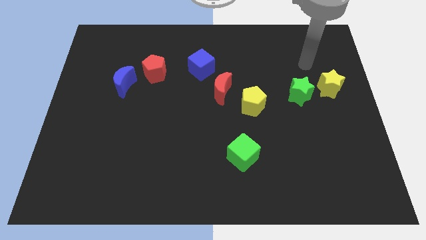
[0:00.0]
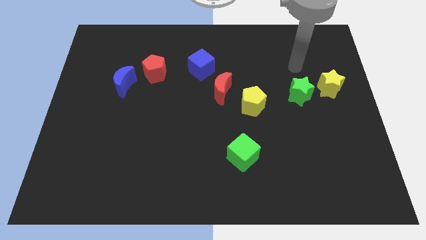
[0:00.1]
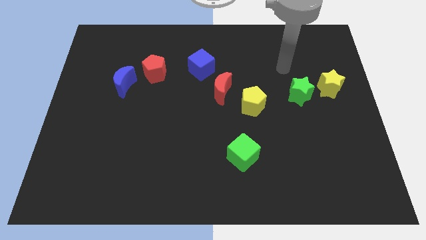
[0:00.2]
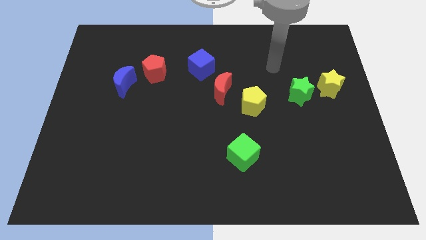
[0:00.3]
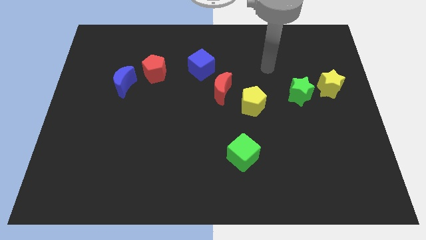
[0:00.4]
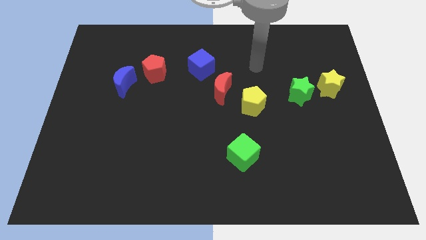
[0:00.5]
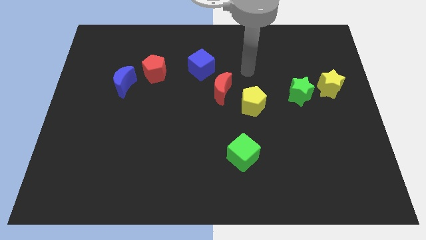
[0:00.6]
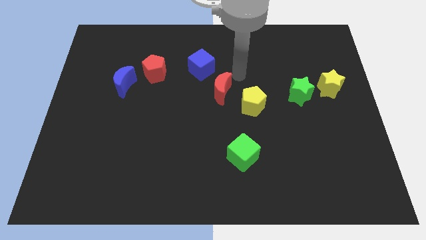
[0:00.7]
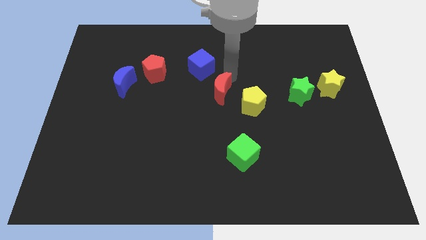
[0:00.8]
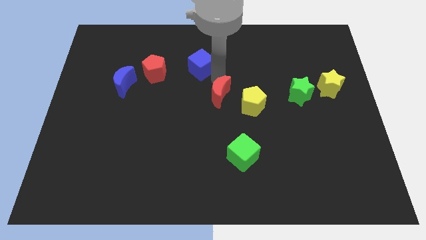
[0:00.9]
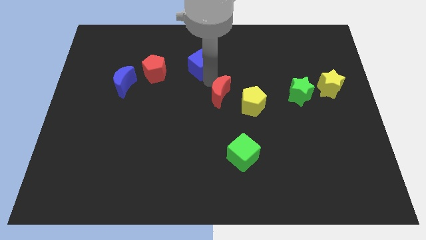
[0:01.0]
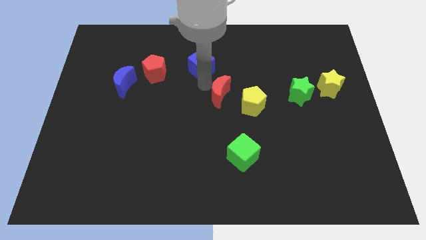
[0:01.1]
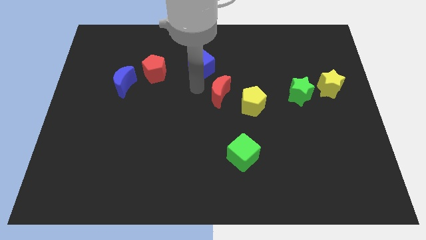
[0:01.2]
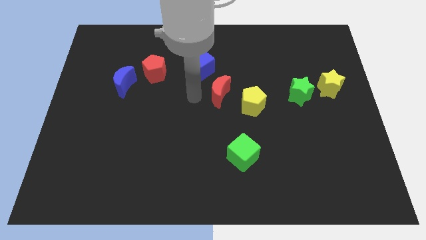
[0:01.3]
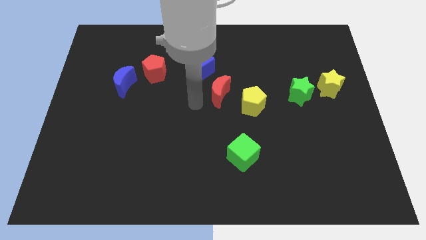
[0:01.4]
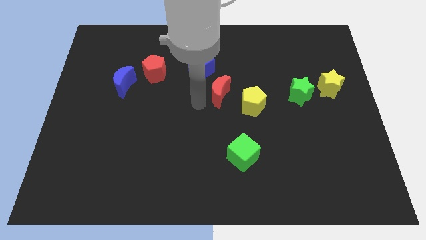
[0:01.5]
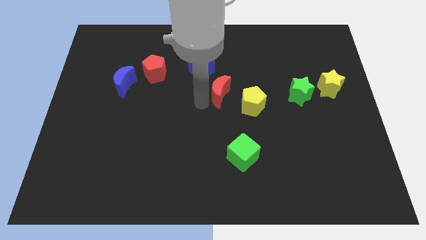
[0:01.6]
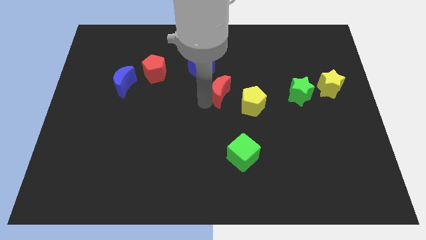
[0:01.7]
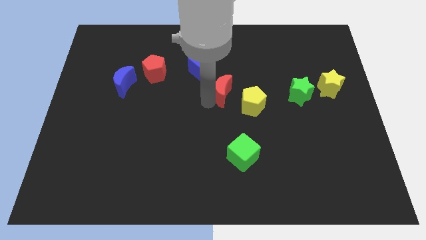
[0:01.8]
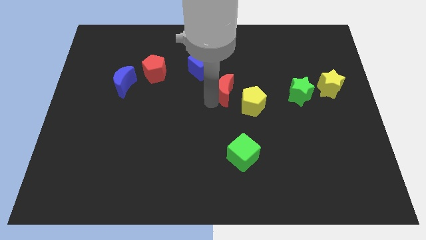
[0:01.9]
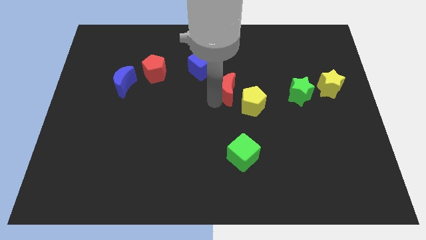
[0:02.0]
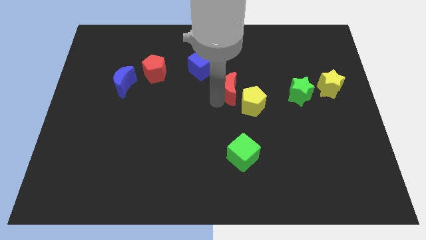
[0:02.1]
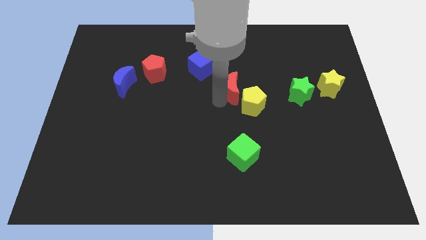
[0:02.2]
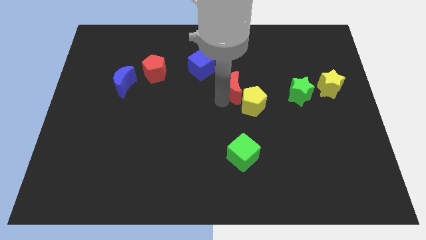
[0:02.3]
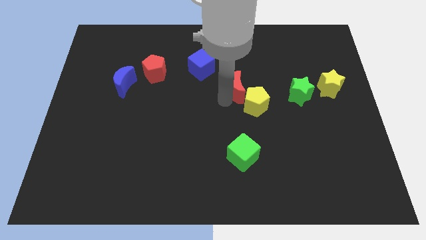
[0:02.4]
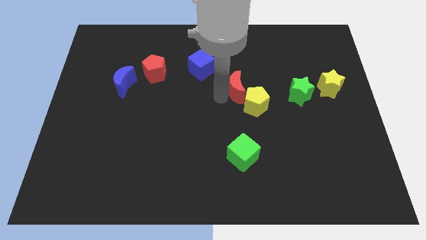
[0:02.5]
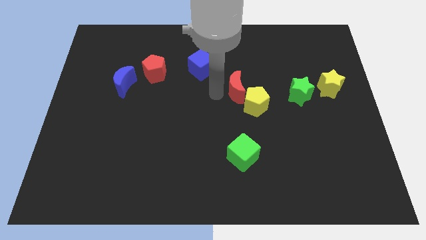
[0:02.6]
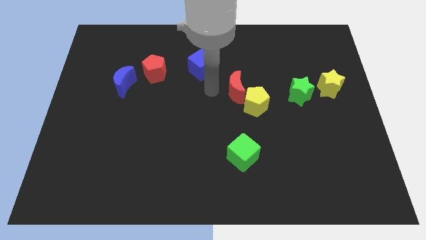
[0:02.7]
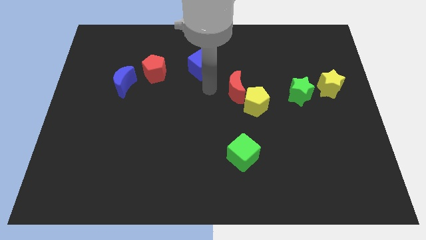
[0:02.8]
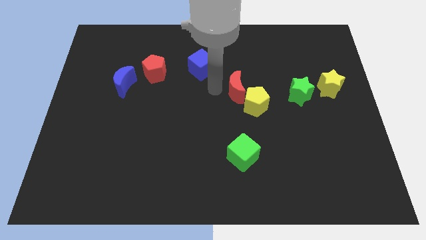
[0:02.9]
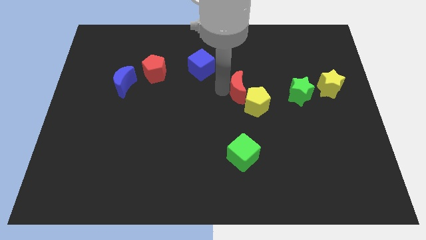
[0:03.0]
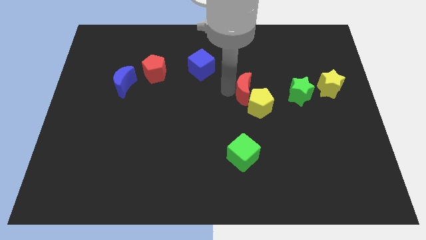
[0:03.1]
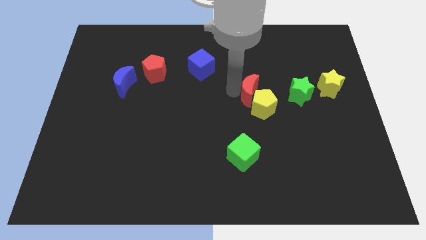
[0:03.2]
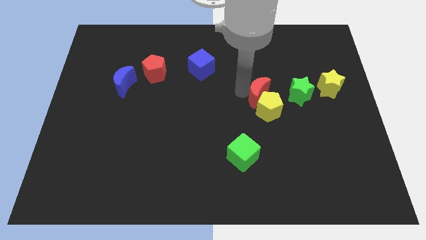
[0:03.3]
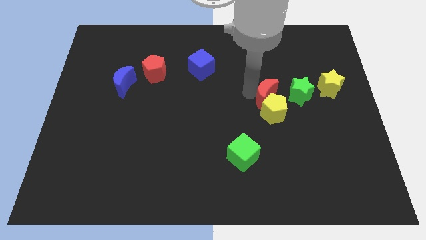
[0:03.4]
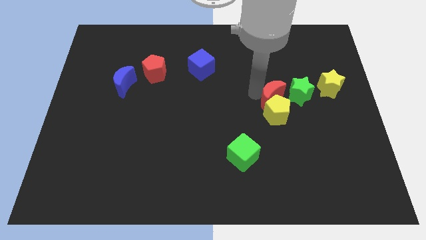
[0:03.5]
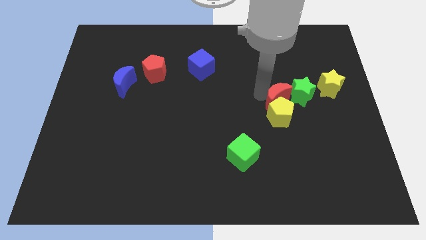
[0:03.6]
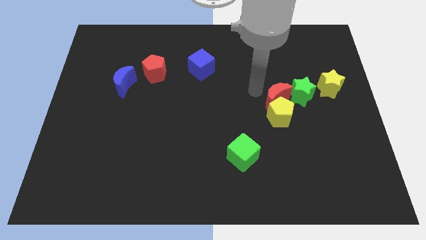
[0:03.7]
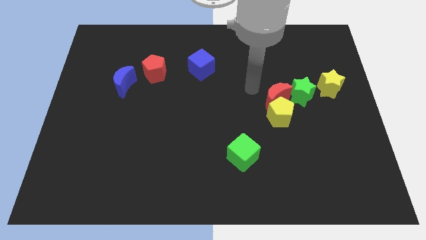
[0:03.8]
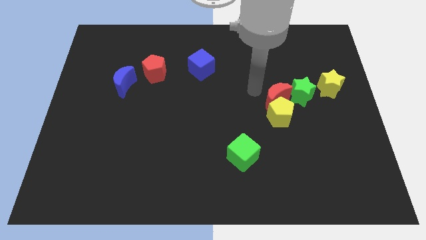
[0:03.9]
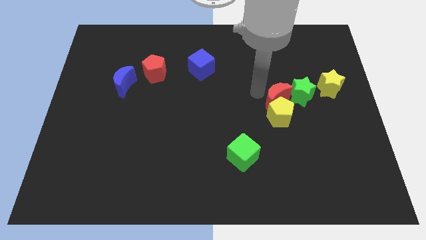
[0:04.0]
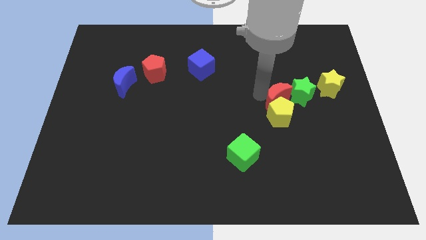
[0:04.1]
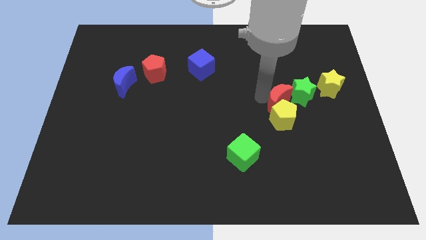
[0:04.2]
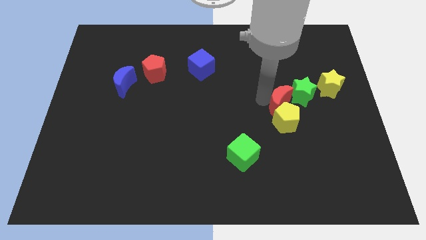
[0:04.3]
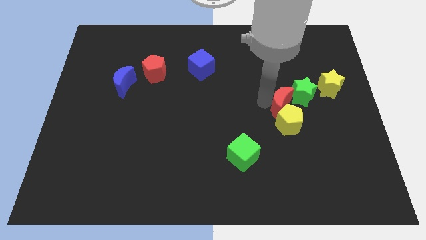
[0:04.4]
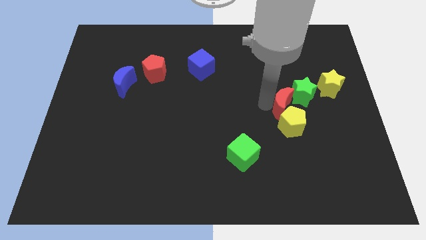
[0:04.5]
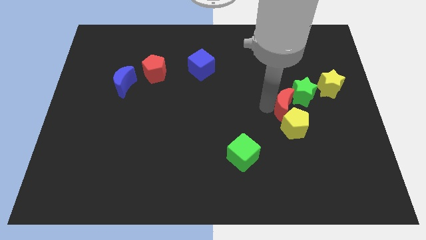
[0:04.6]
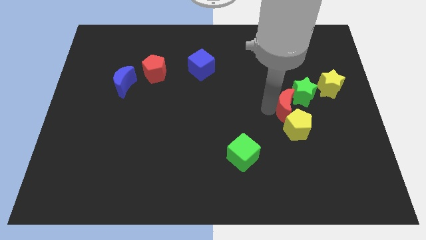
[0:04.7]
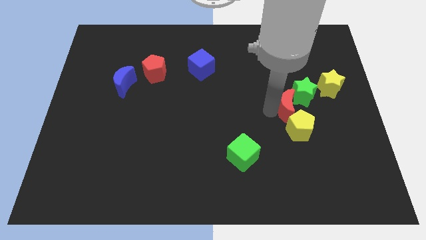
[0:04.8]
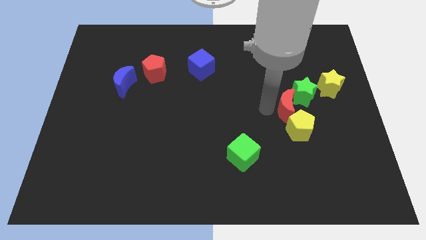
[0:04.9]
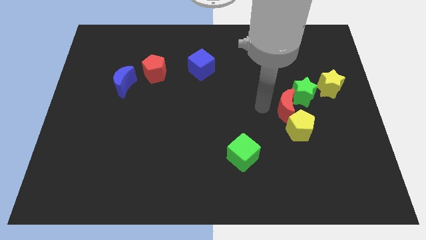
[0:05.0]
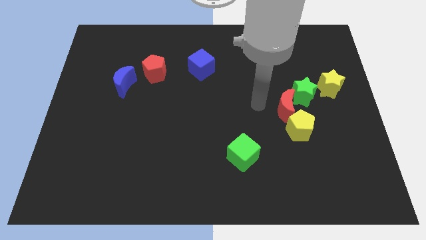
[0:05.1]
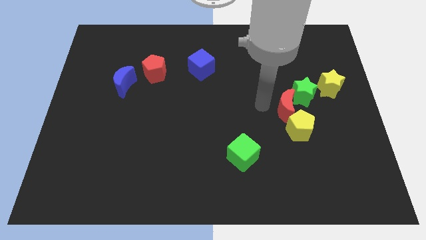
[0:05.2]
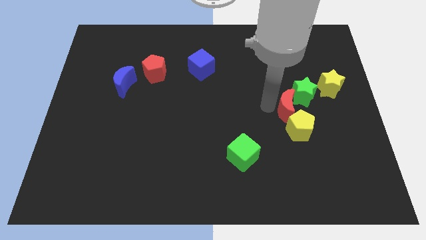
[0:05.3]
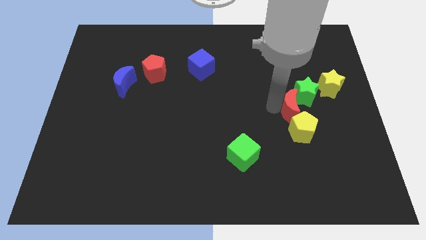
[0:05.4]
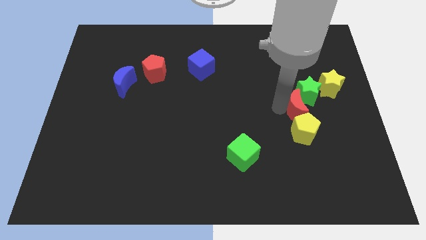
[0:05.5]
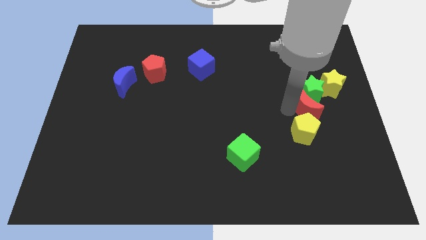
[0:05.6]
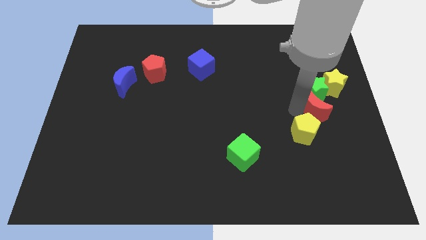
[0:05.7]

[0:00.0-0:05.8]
slide the red moon to the bottom right of the green star

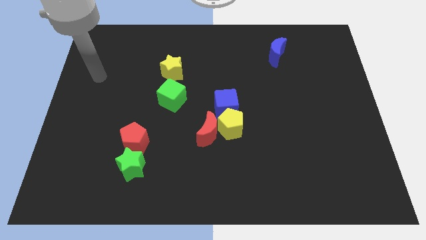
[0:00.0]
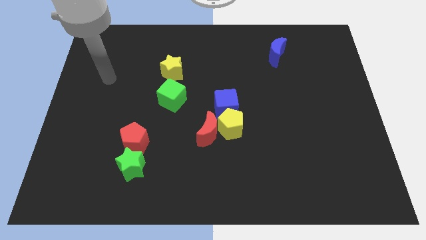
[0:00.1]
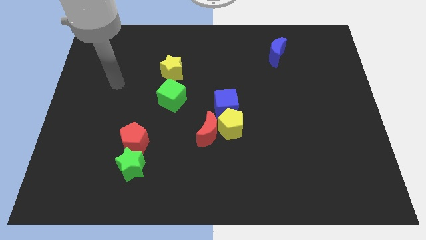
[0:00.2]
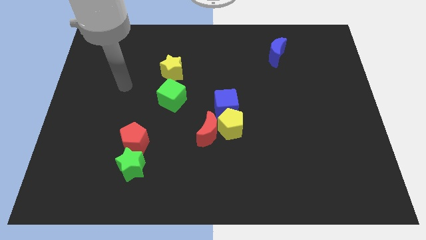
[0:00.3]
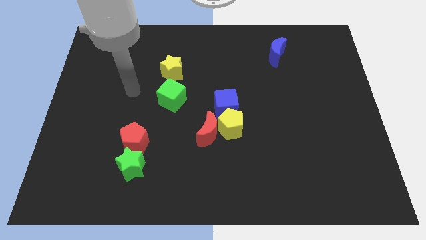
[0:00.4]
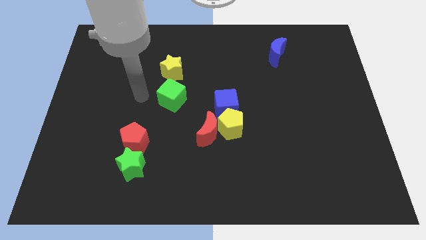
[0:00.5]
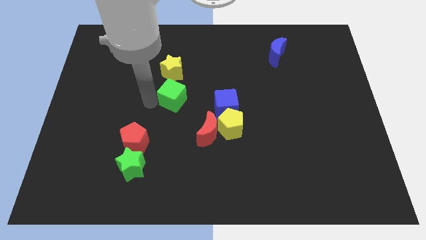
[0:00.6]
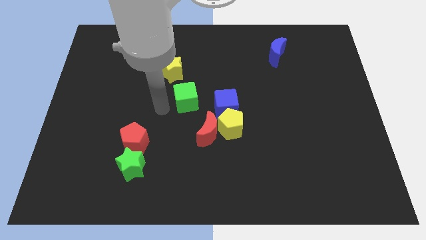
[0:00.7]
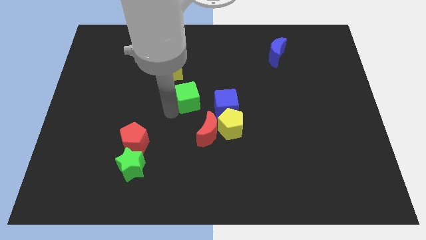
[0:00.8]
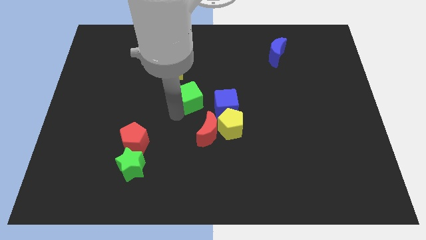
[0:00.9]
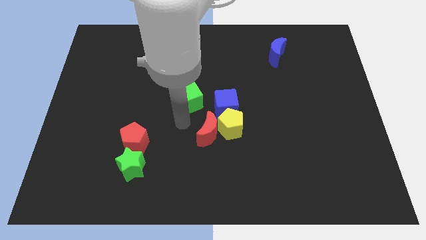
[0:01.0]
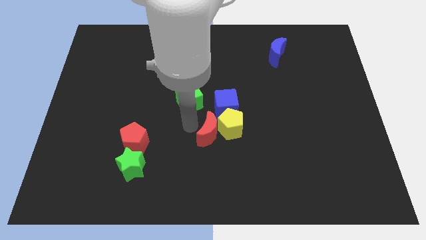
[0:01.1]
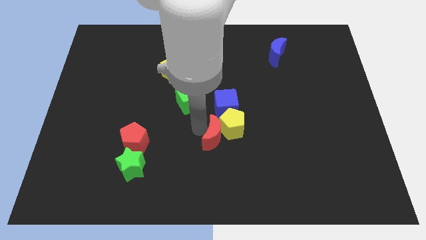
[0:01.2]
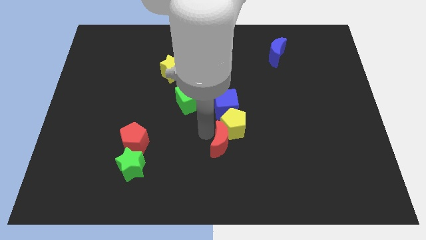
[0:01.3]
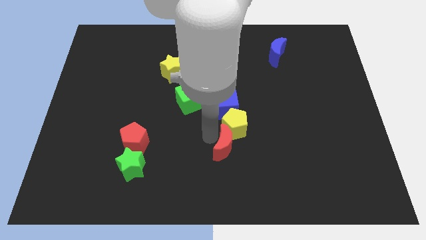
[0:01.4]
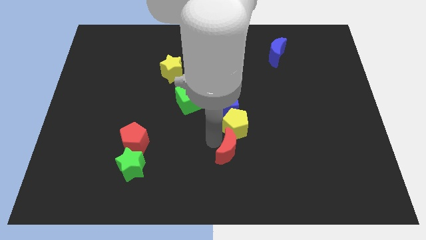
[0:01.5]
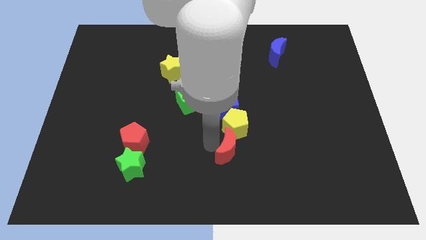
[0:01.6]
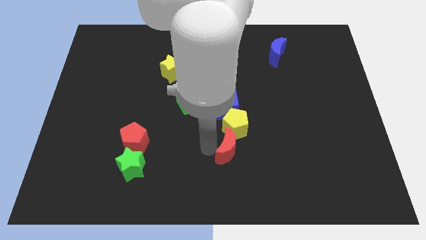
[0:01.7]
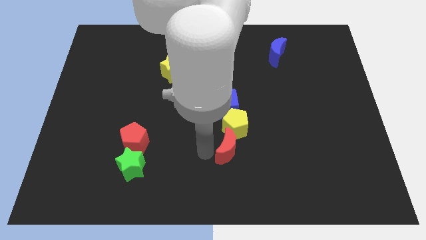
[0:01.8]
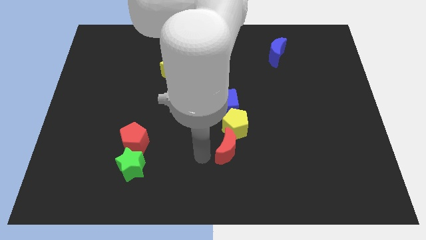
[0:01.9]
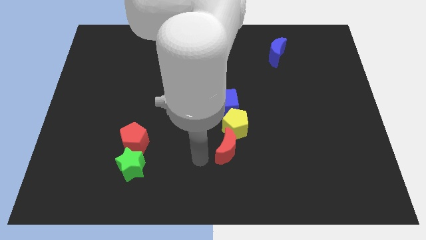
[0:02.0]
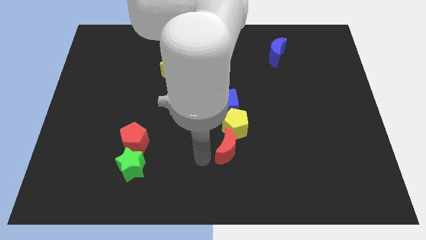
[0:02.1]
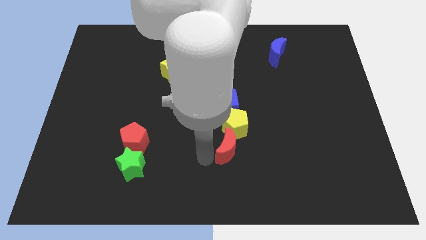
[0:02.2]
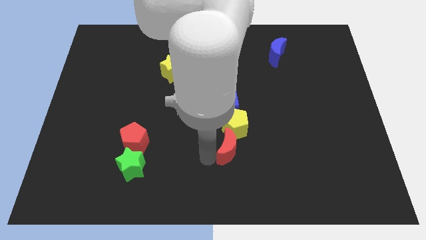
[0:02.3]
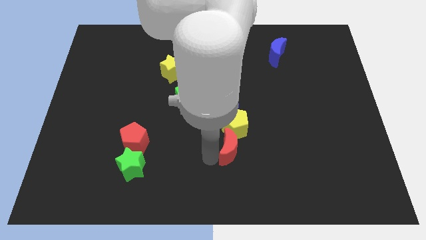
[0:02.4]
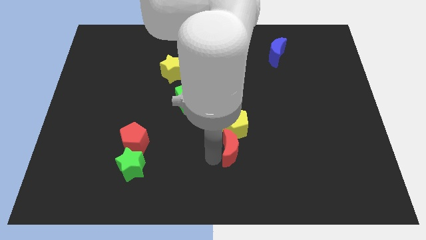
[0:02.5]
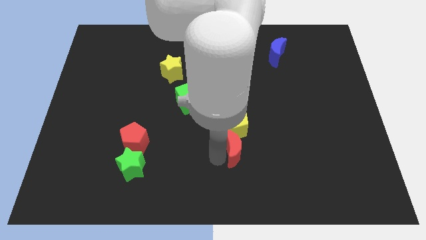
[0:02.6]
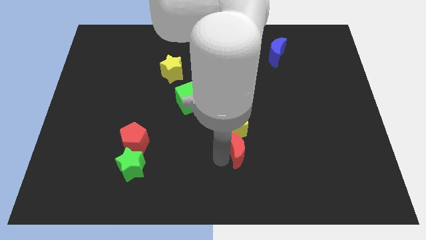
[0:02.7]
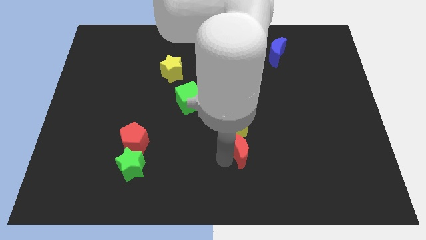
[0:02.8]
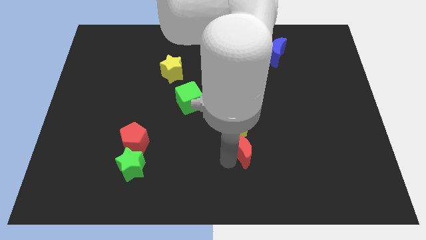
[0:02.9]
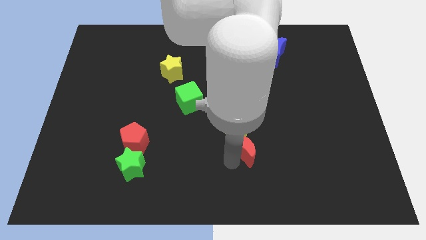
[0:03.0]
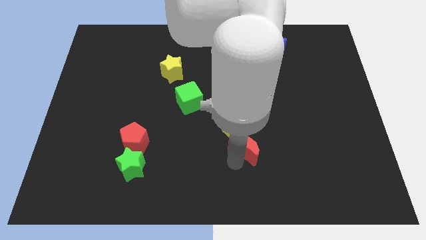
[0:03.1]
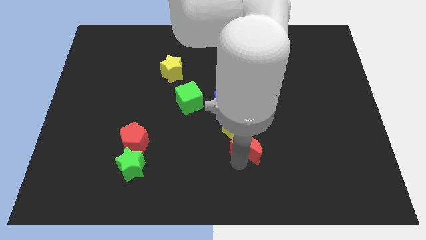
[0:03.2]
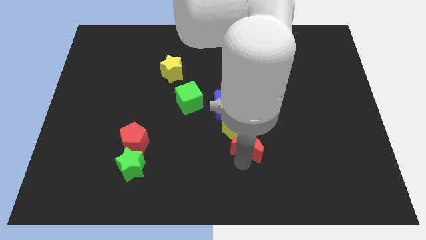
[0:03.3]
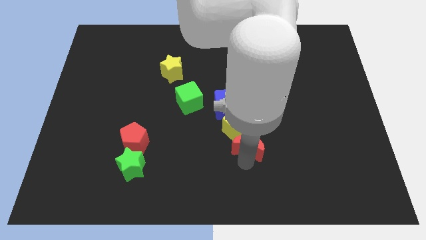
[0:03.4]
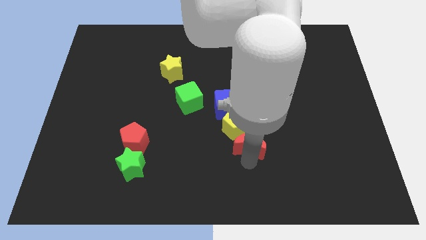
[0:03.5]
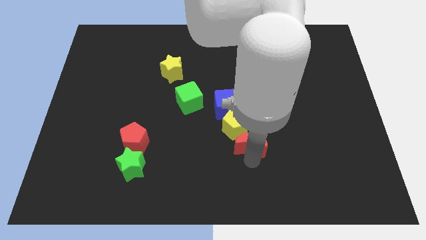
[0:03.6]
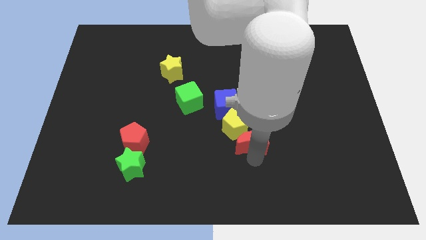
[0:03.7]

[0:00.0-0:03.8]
push the red moon to the bottom right of the blue cube
